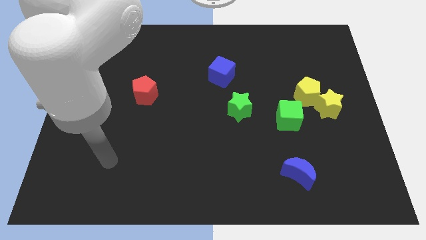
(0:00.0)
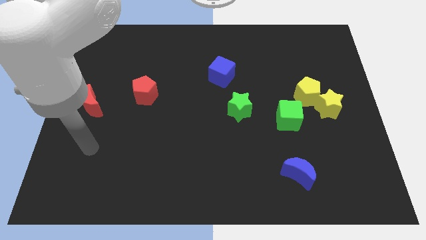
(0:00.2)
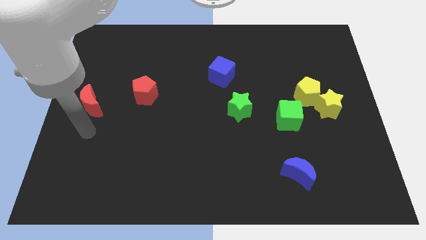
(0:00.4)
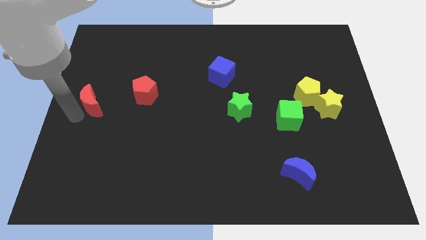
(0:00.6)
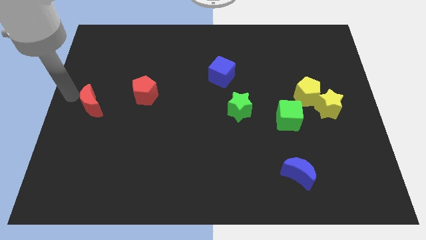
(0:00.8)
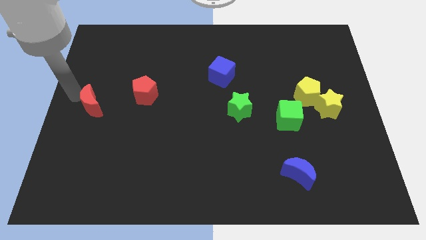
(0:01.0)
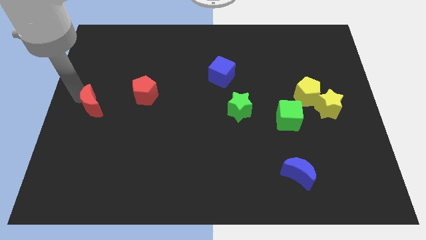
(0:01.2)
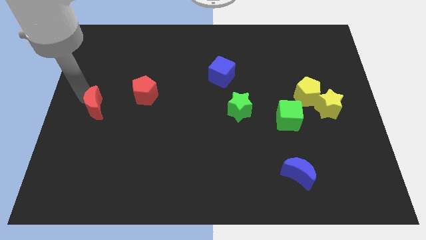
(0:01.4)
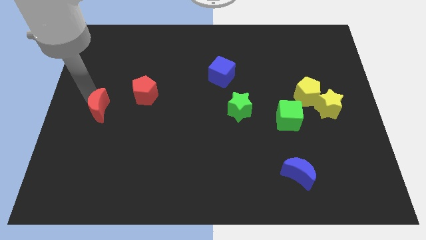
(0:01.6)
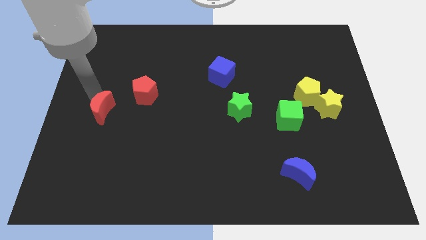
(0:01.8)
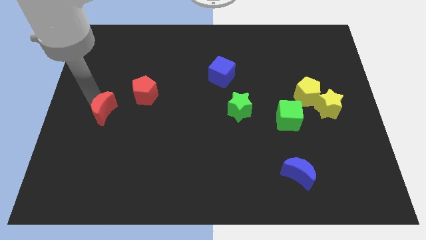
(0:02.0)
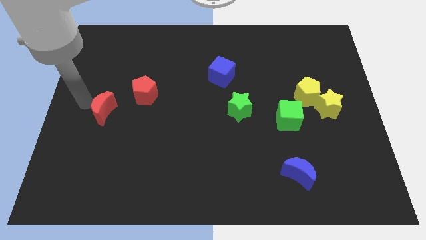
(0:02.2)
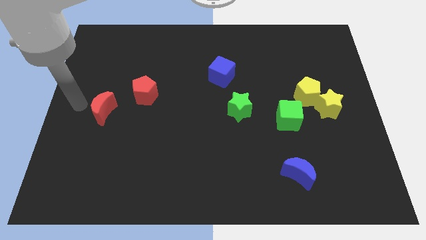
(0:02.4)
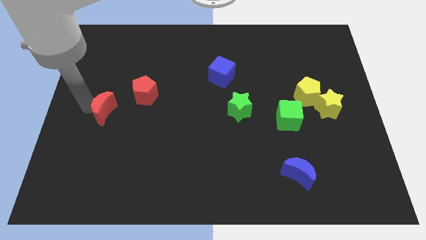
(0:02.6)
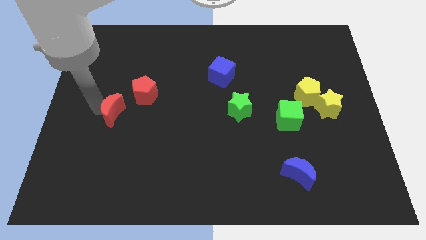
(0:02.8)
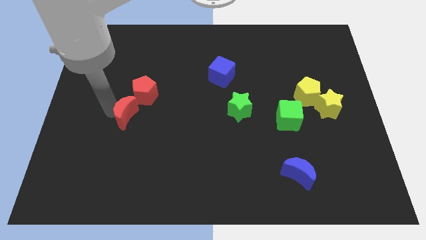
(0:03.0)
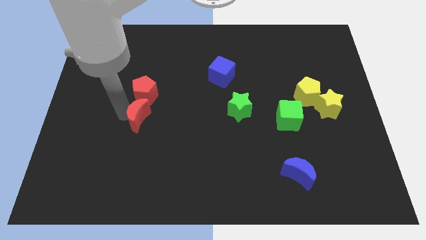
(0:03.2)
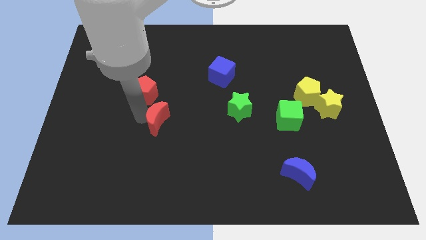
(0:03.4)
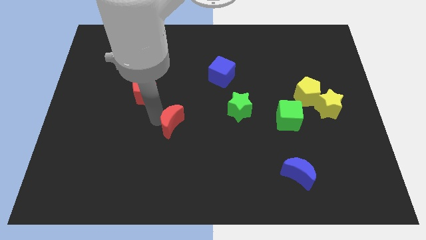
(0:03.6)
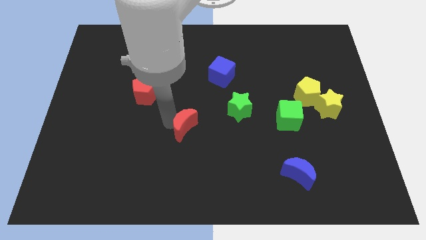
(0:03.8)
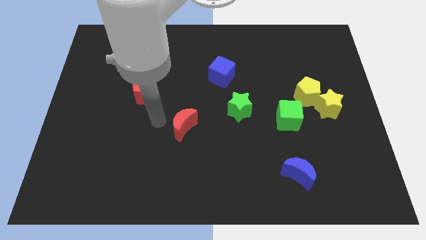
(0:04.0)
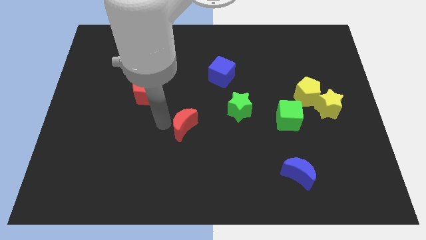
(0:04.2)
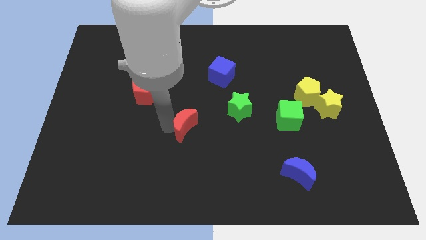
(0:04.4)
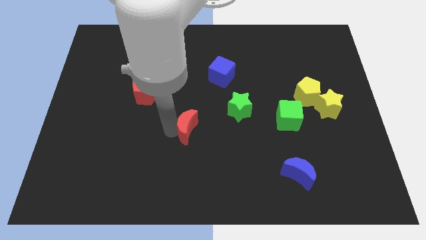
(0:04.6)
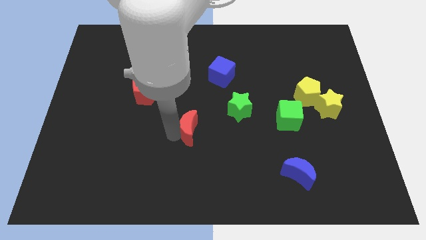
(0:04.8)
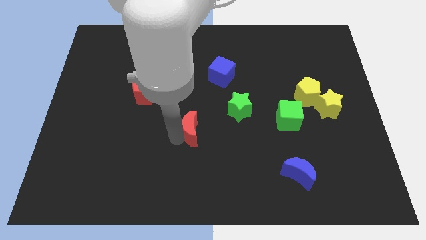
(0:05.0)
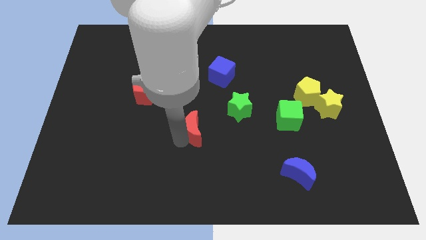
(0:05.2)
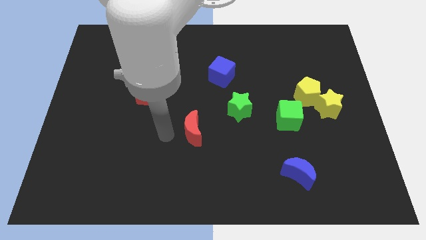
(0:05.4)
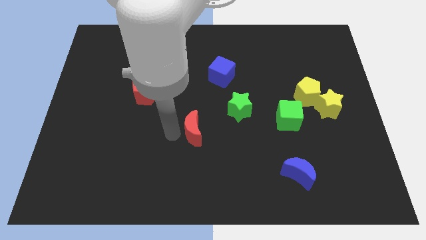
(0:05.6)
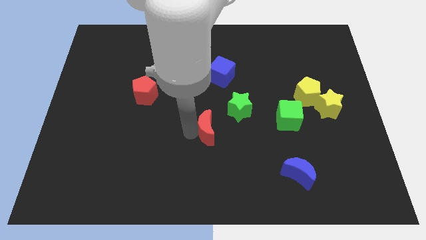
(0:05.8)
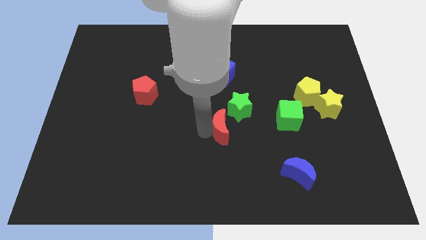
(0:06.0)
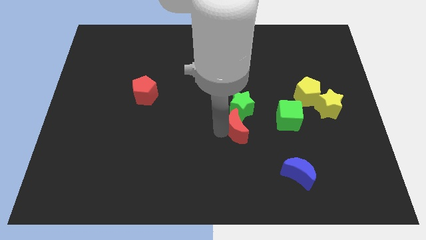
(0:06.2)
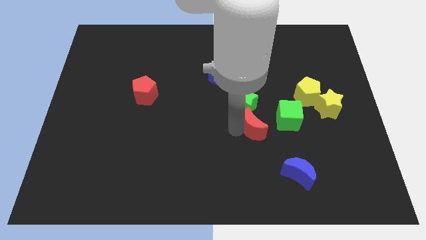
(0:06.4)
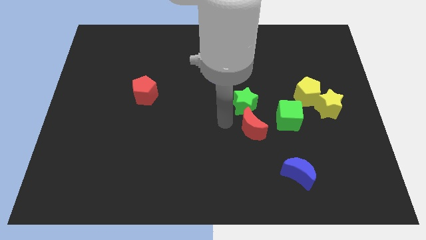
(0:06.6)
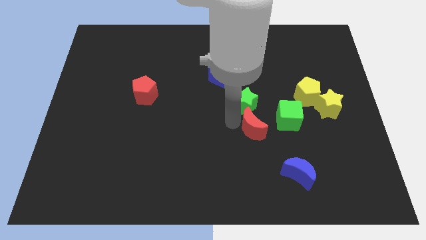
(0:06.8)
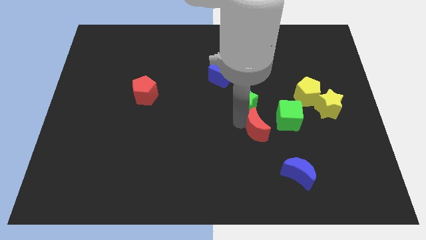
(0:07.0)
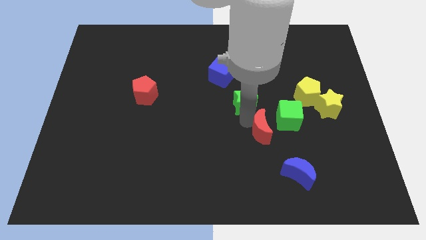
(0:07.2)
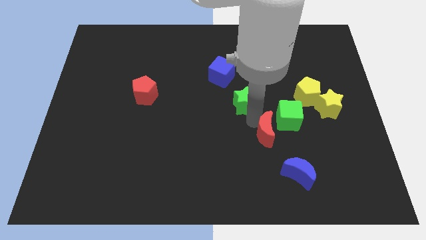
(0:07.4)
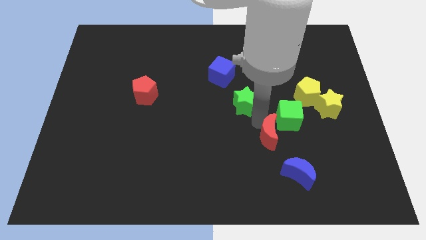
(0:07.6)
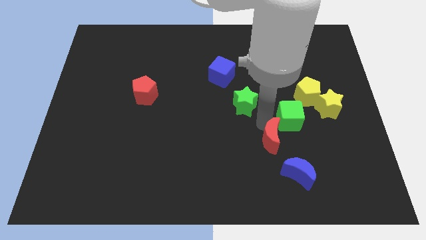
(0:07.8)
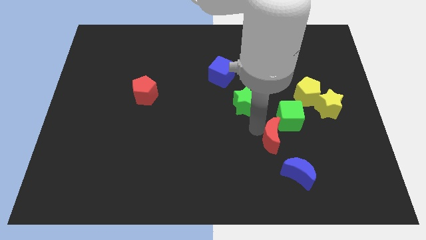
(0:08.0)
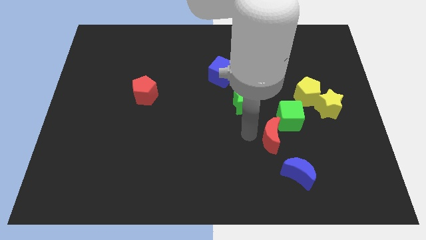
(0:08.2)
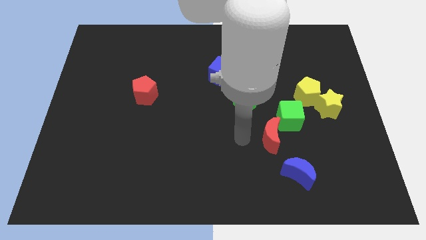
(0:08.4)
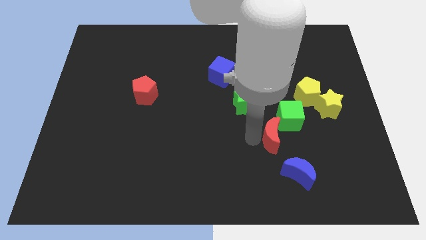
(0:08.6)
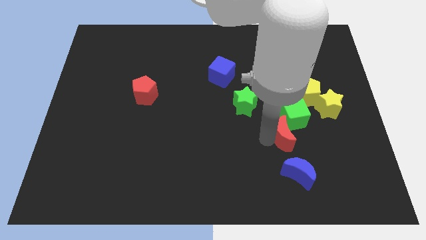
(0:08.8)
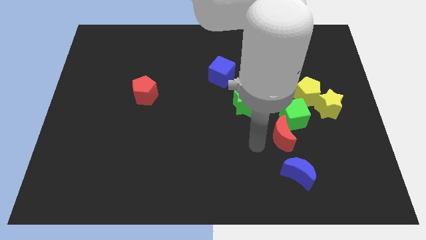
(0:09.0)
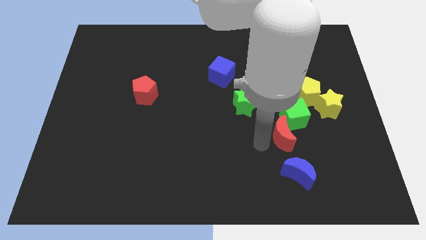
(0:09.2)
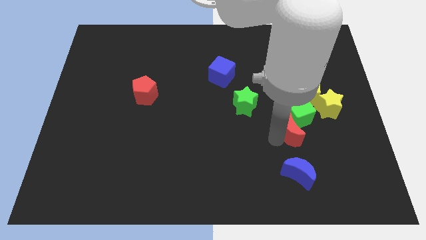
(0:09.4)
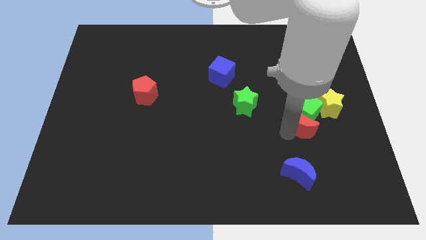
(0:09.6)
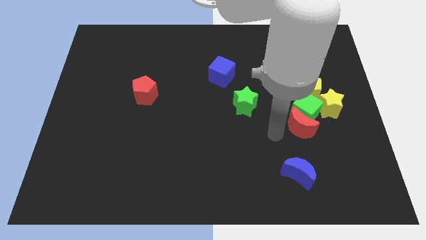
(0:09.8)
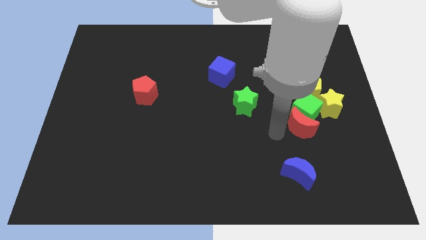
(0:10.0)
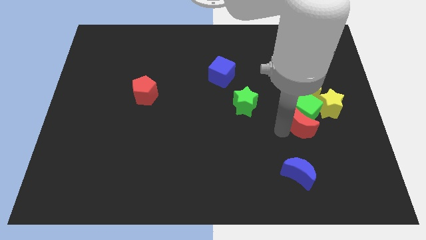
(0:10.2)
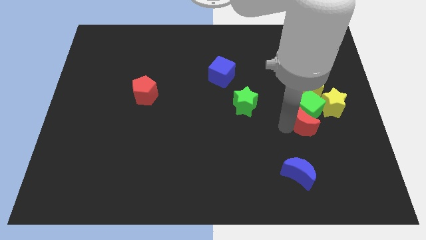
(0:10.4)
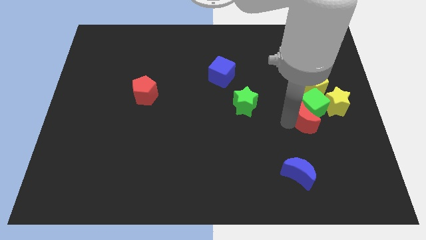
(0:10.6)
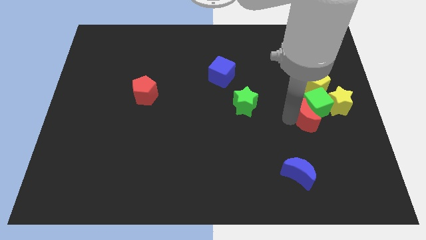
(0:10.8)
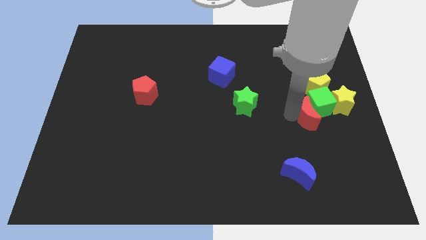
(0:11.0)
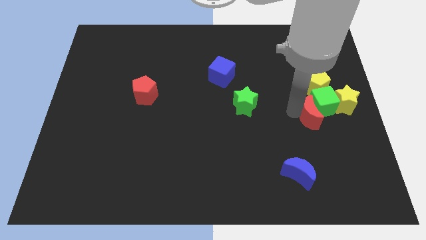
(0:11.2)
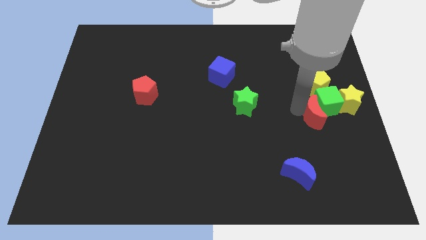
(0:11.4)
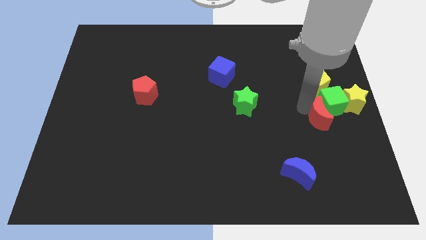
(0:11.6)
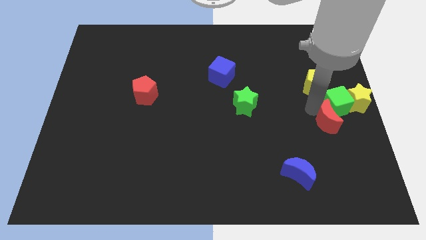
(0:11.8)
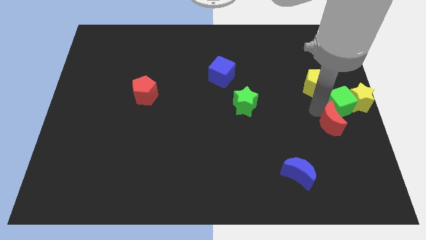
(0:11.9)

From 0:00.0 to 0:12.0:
push the red moon to the right side of the board

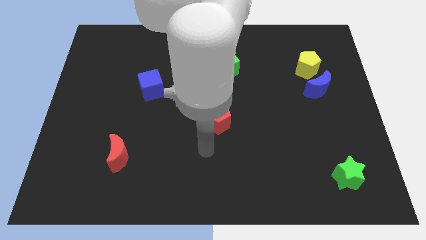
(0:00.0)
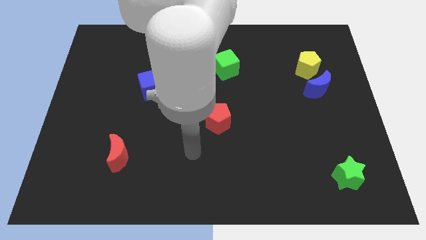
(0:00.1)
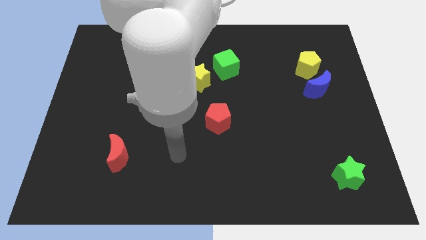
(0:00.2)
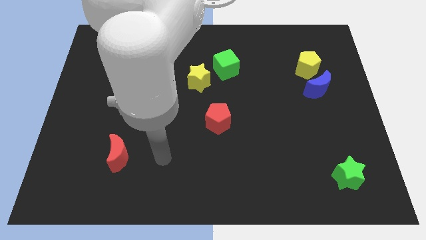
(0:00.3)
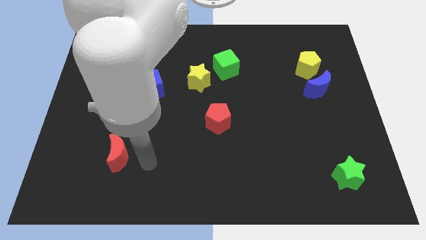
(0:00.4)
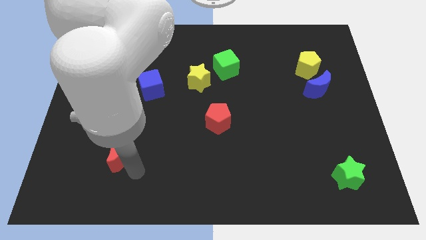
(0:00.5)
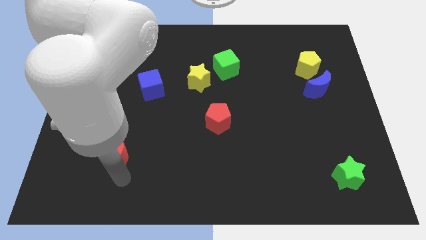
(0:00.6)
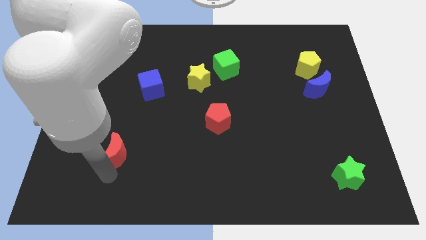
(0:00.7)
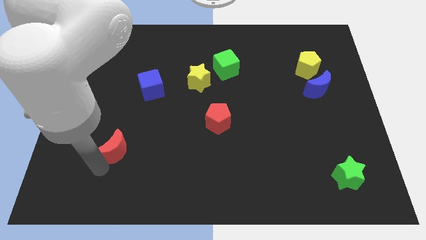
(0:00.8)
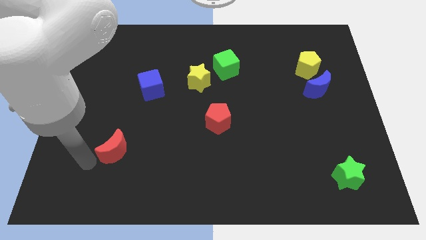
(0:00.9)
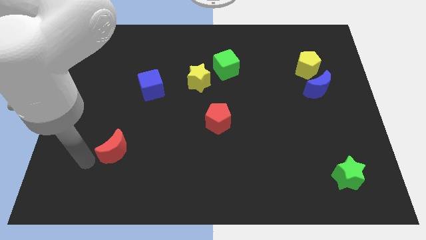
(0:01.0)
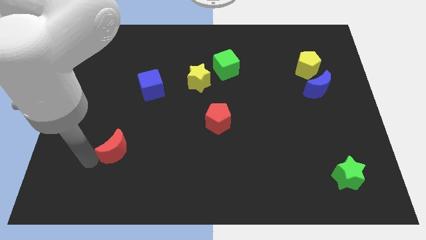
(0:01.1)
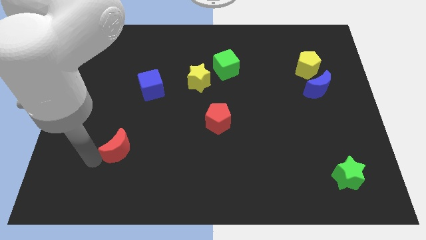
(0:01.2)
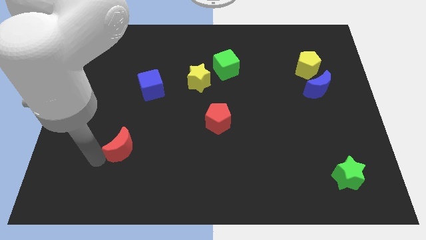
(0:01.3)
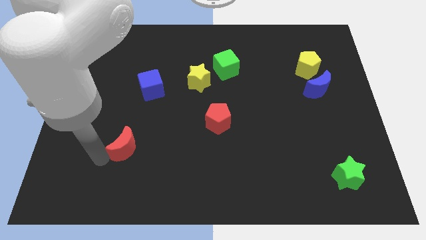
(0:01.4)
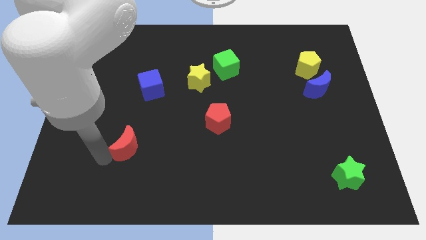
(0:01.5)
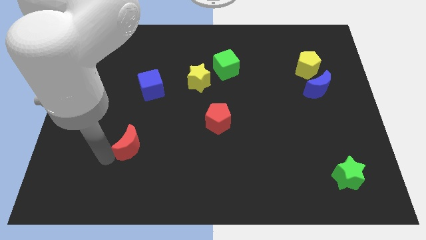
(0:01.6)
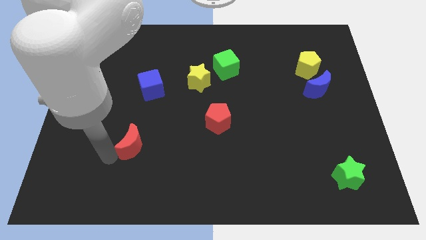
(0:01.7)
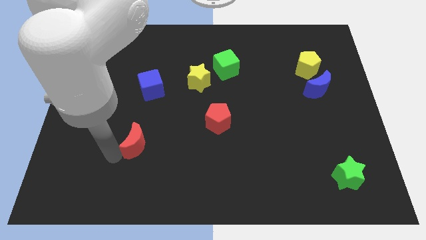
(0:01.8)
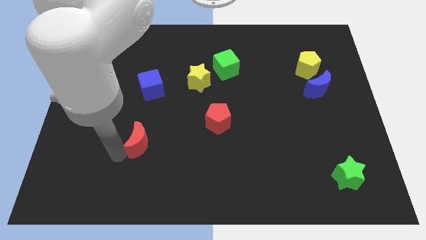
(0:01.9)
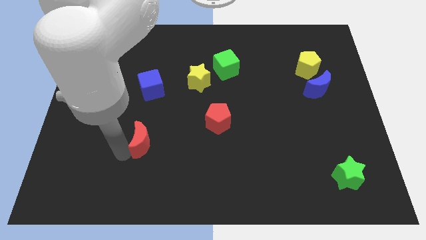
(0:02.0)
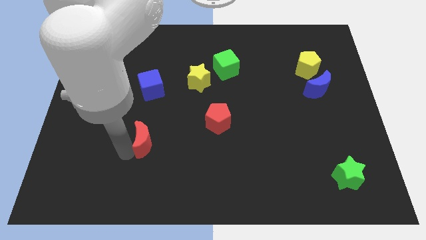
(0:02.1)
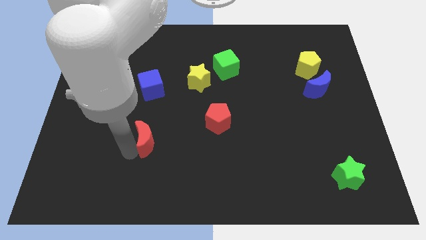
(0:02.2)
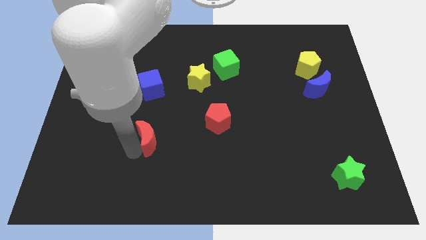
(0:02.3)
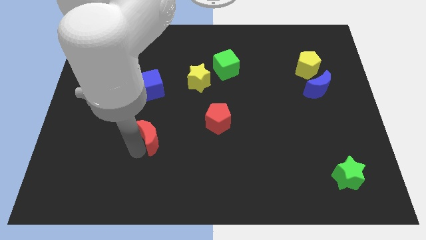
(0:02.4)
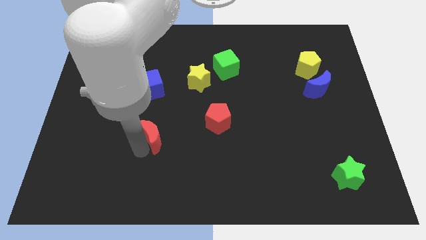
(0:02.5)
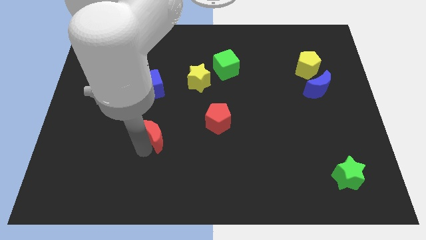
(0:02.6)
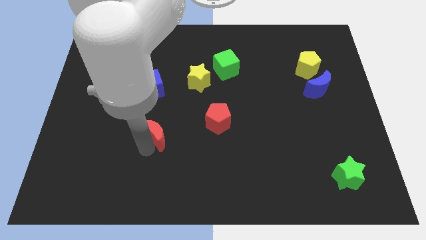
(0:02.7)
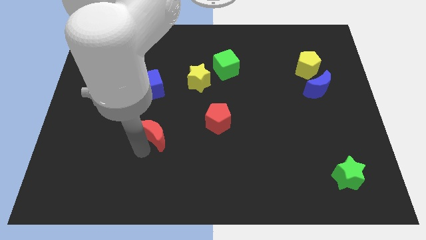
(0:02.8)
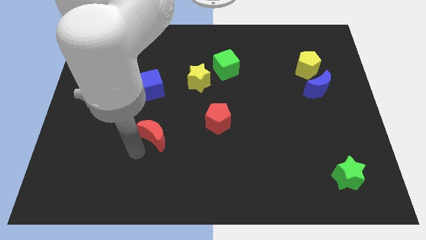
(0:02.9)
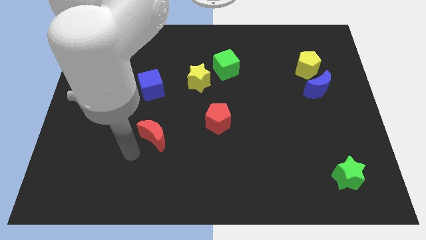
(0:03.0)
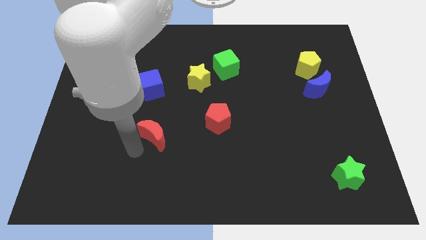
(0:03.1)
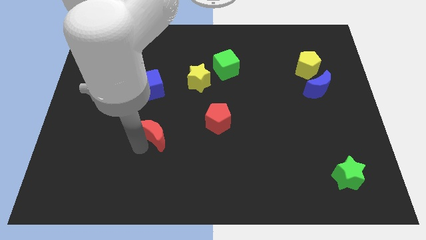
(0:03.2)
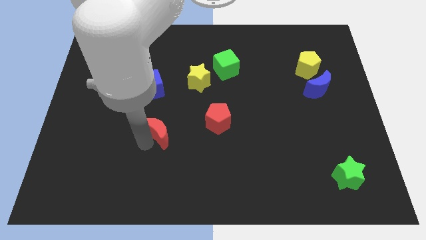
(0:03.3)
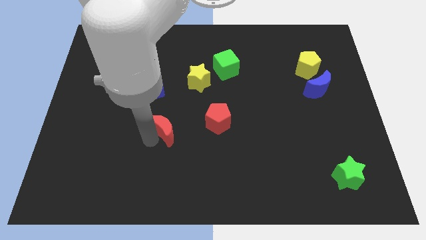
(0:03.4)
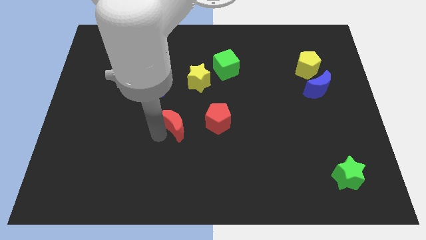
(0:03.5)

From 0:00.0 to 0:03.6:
move the red moon to the center
